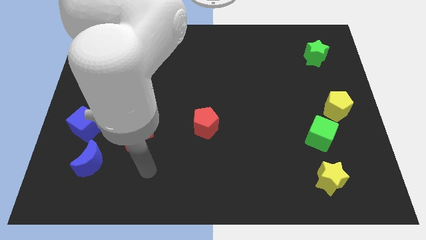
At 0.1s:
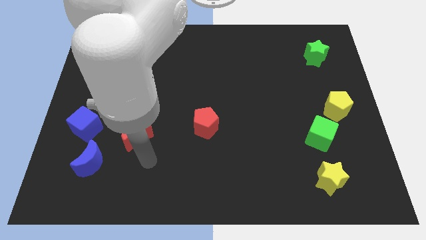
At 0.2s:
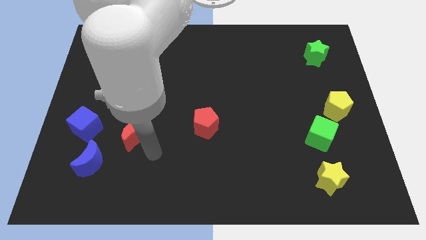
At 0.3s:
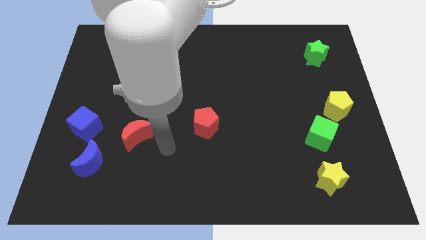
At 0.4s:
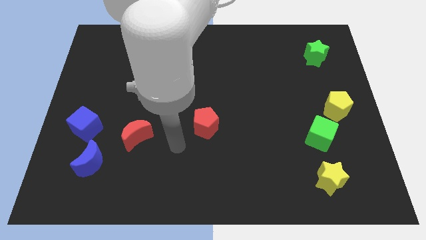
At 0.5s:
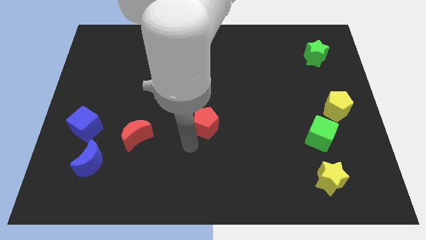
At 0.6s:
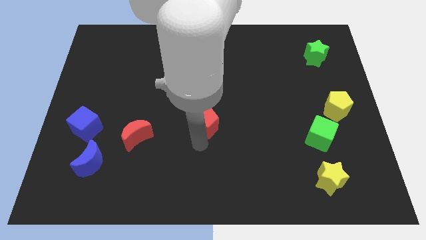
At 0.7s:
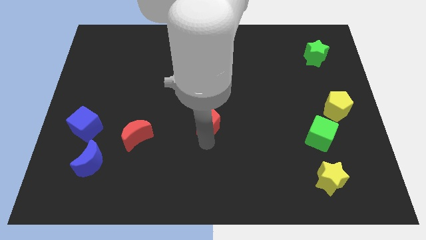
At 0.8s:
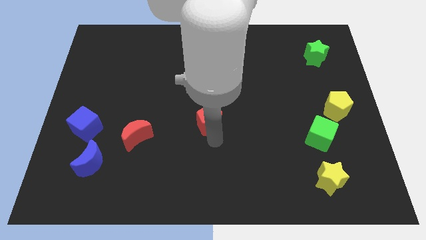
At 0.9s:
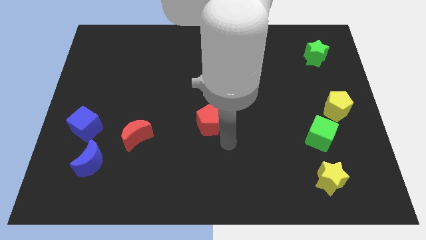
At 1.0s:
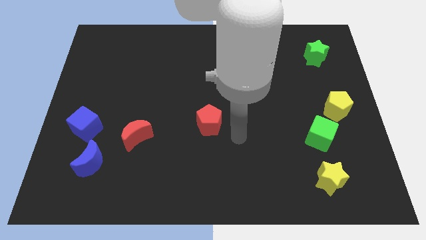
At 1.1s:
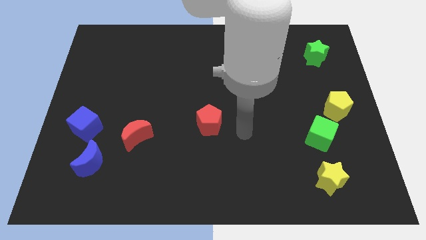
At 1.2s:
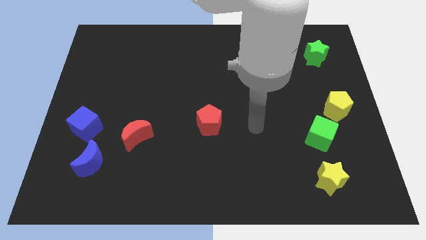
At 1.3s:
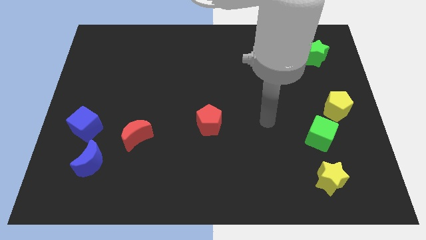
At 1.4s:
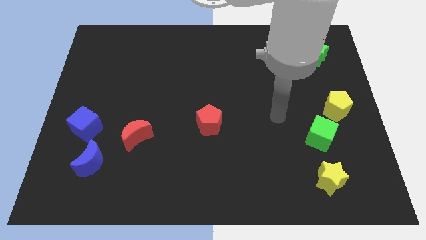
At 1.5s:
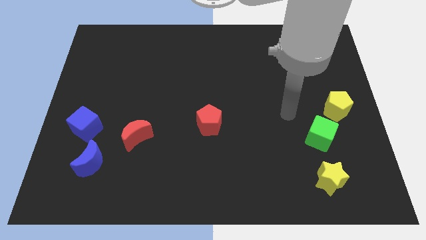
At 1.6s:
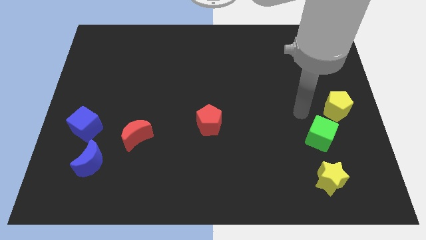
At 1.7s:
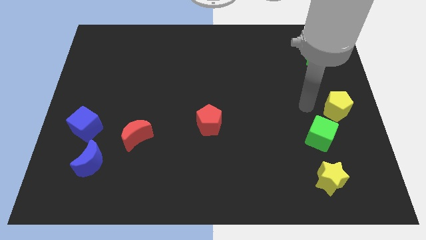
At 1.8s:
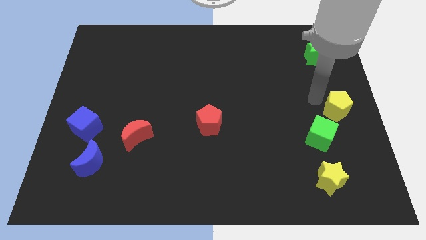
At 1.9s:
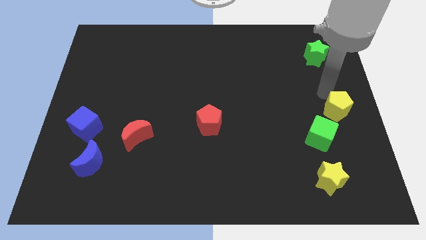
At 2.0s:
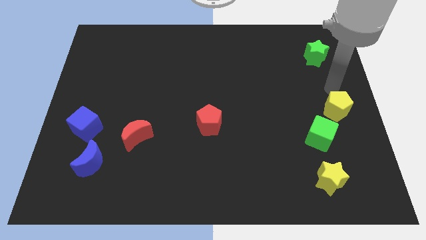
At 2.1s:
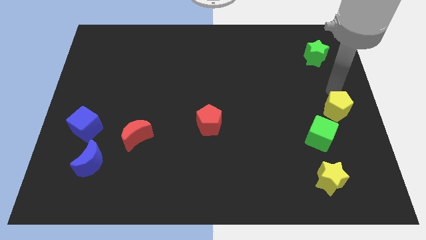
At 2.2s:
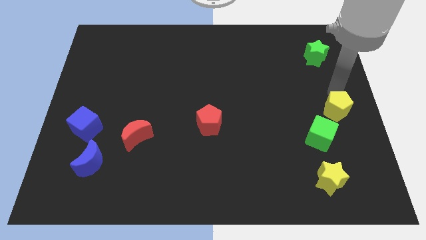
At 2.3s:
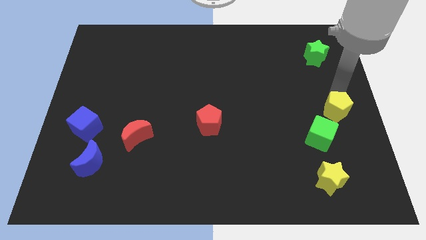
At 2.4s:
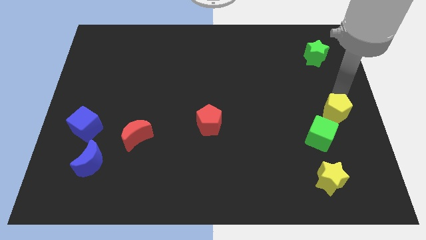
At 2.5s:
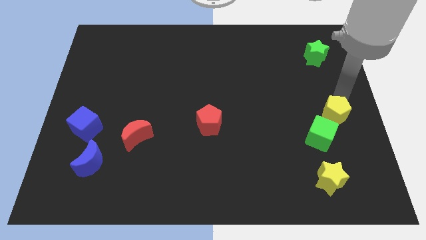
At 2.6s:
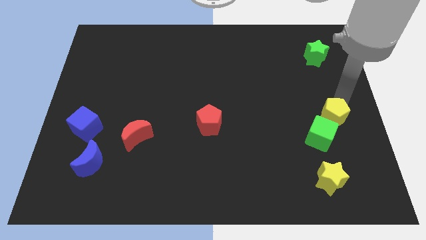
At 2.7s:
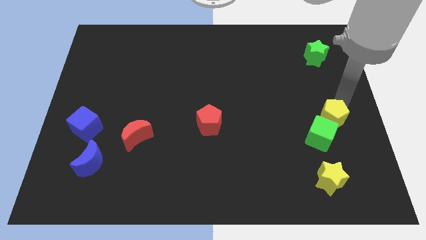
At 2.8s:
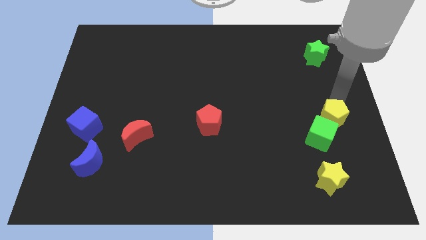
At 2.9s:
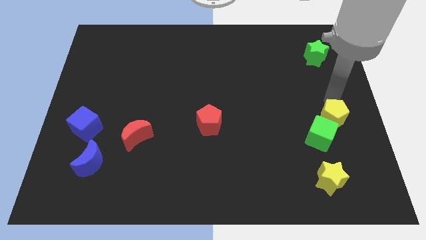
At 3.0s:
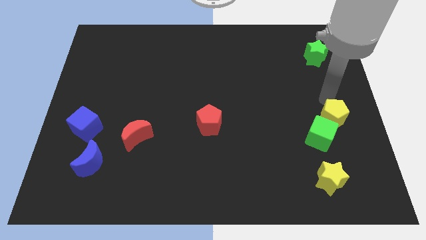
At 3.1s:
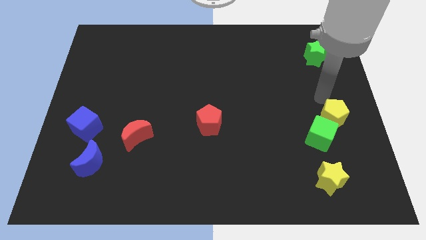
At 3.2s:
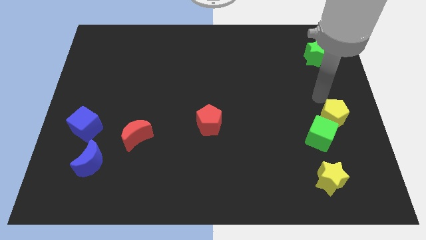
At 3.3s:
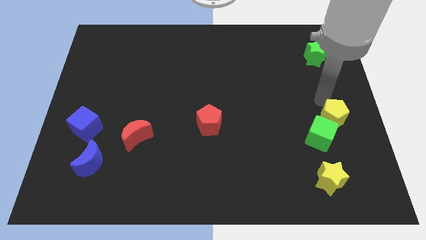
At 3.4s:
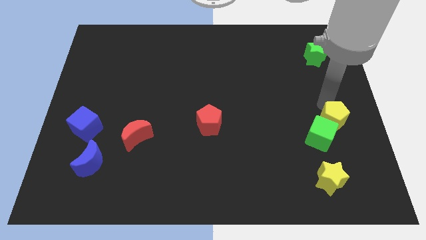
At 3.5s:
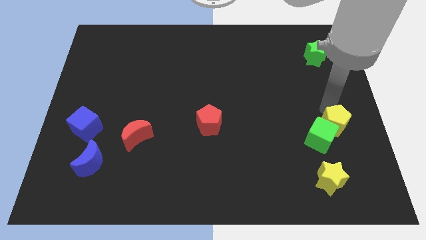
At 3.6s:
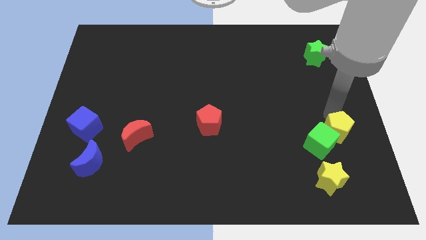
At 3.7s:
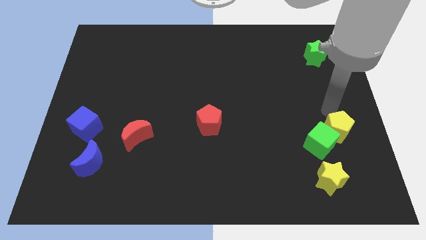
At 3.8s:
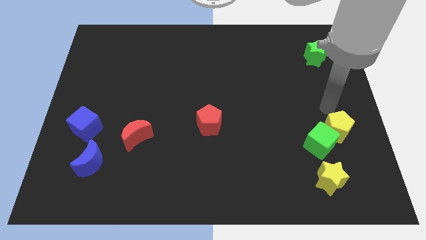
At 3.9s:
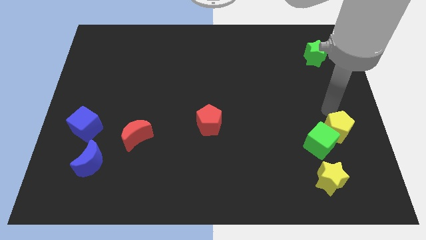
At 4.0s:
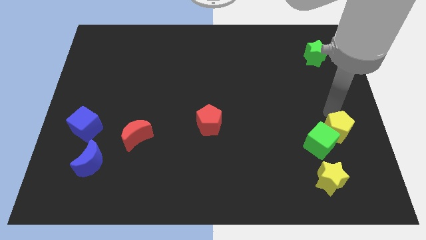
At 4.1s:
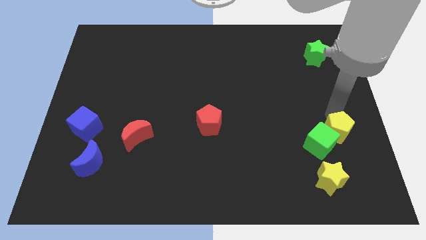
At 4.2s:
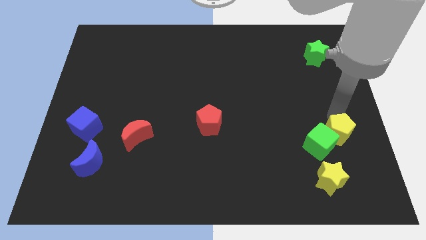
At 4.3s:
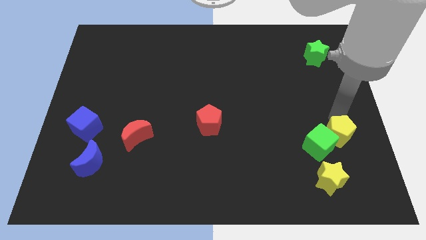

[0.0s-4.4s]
move the yellow pentagon downwards somewhat

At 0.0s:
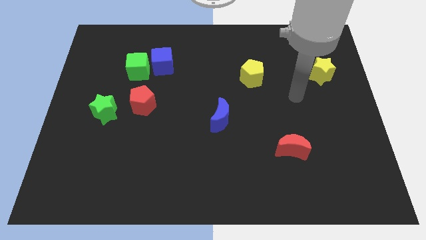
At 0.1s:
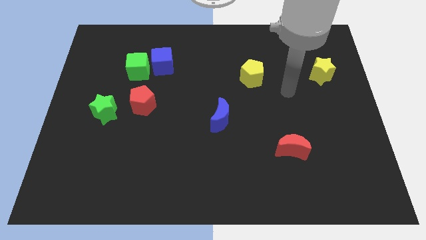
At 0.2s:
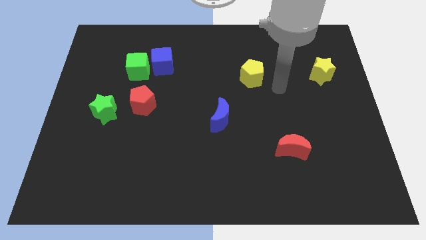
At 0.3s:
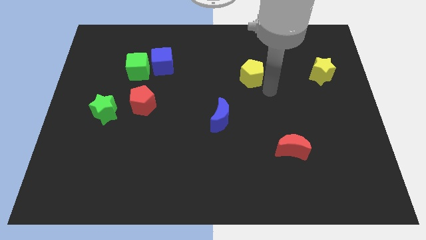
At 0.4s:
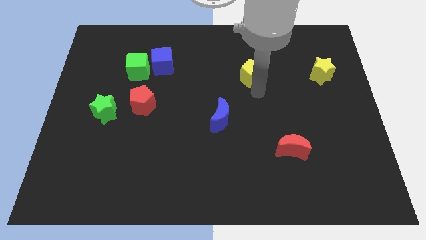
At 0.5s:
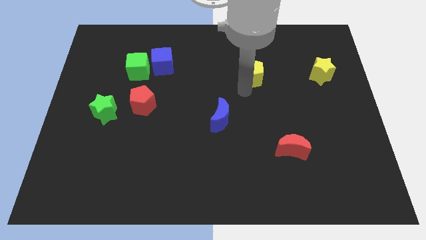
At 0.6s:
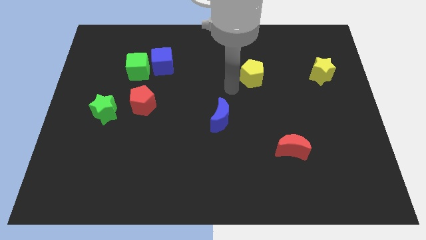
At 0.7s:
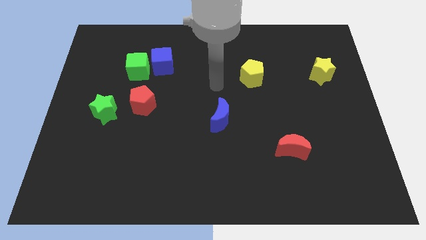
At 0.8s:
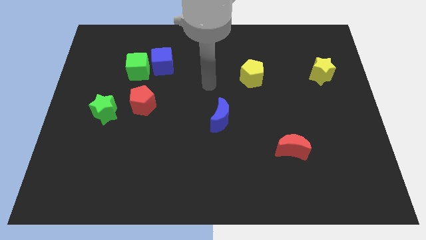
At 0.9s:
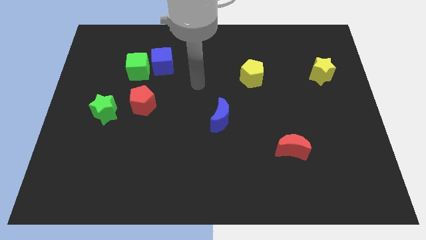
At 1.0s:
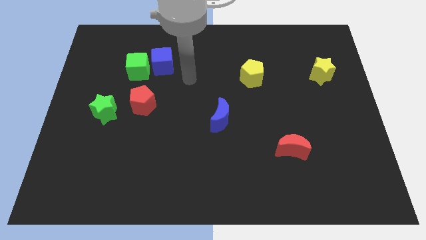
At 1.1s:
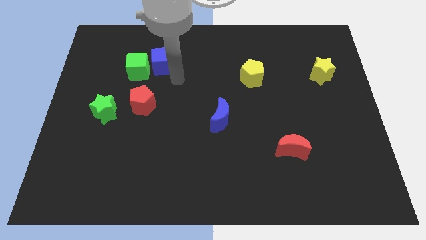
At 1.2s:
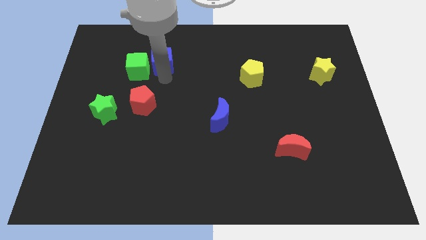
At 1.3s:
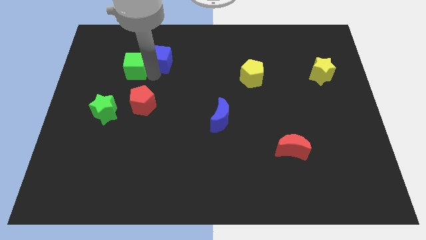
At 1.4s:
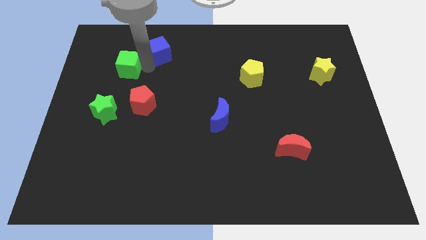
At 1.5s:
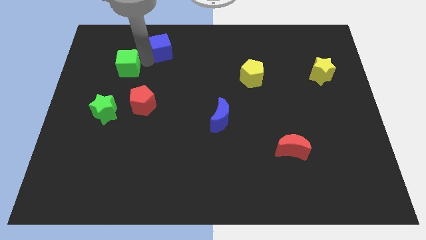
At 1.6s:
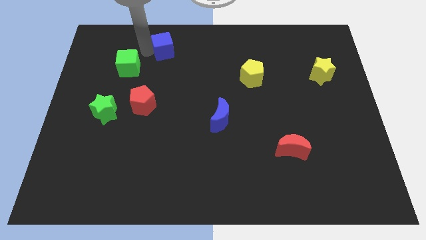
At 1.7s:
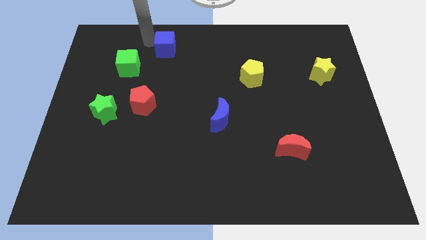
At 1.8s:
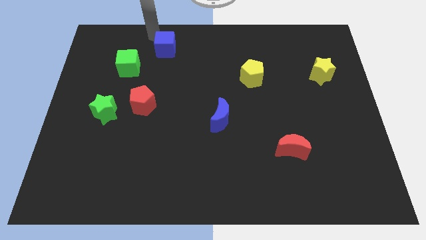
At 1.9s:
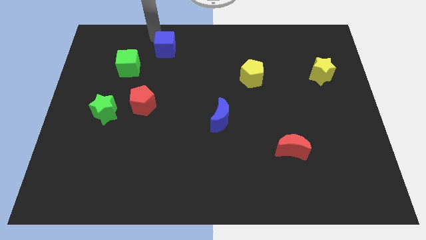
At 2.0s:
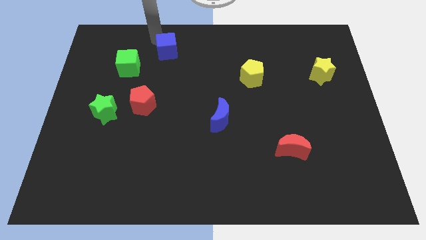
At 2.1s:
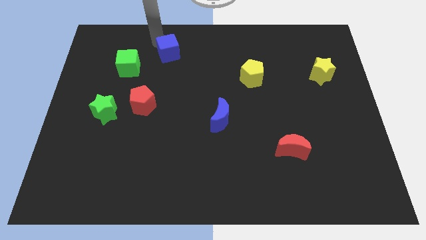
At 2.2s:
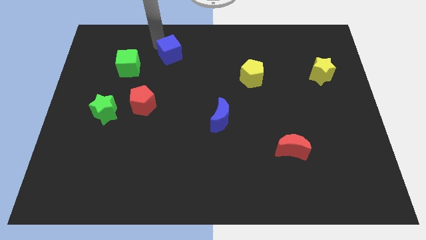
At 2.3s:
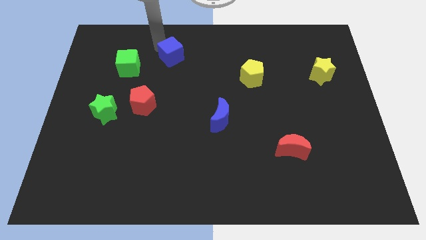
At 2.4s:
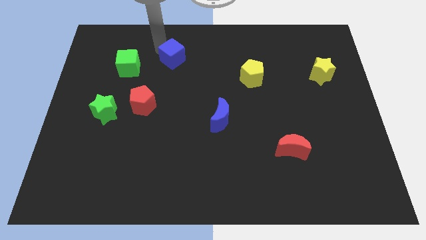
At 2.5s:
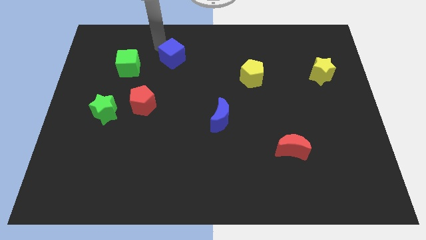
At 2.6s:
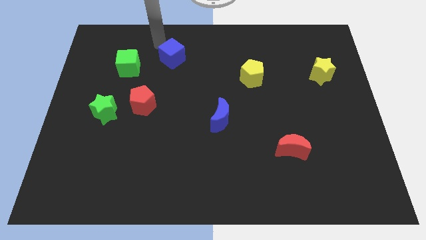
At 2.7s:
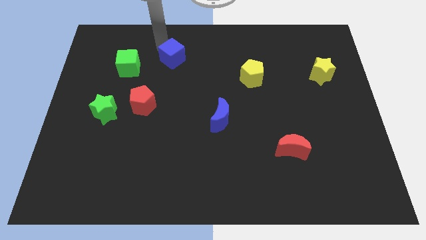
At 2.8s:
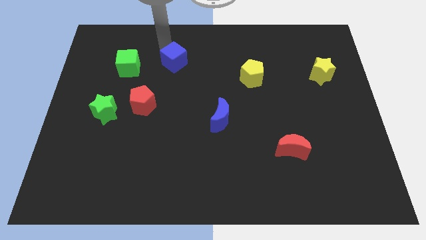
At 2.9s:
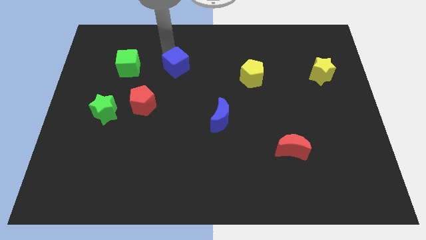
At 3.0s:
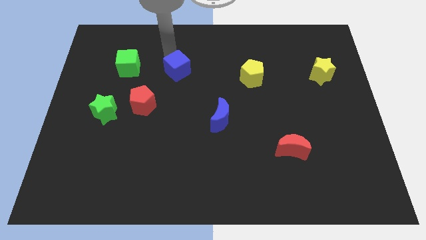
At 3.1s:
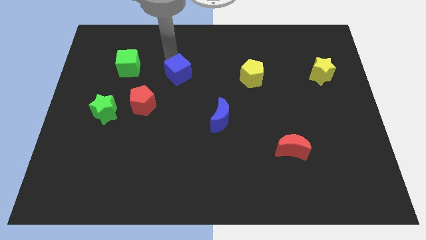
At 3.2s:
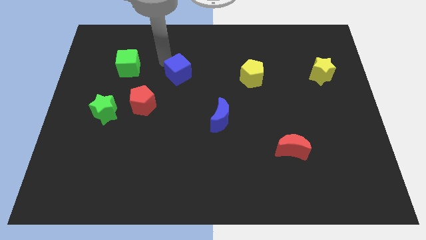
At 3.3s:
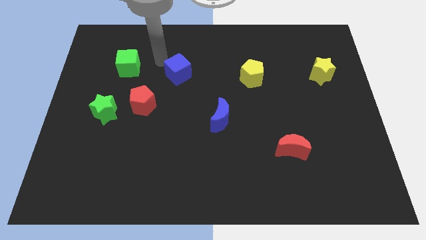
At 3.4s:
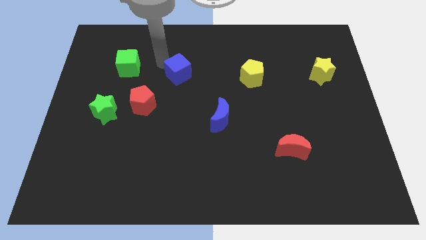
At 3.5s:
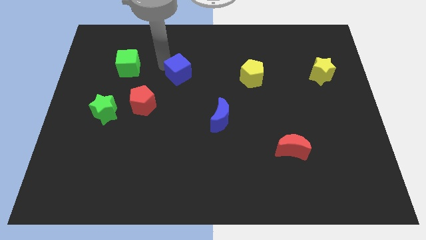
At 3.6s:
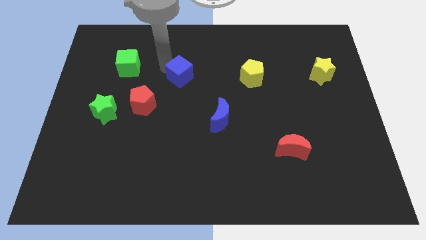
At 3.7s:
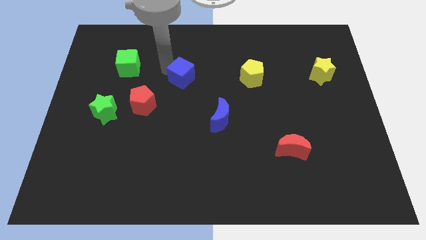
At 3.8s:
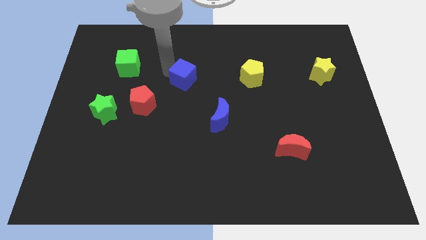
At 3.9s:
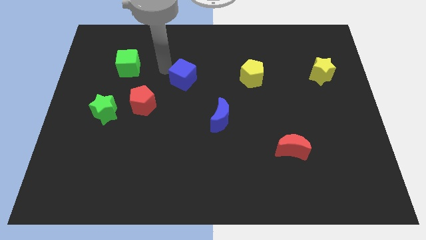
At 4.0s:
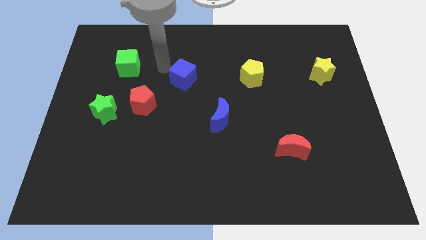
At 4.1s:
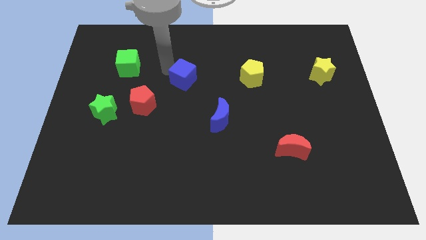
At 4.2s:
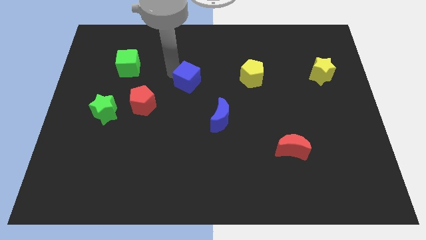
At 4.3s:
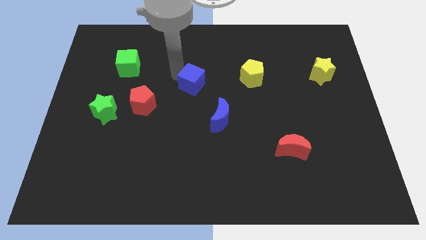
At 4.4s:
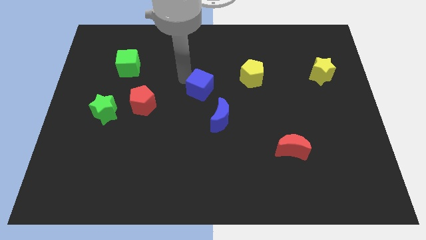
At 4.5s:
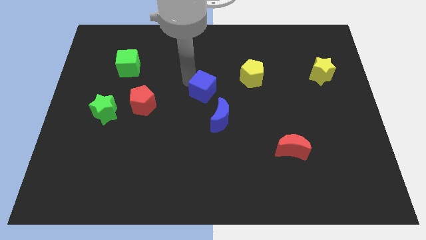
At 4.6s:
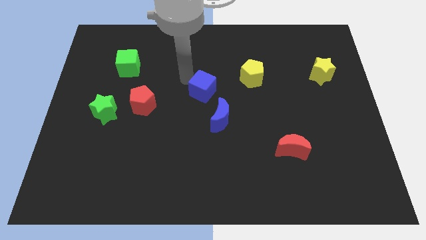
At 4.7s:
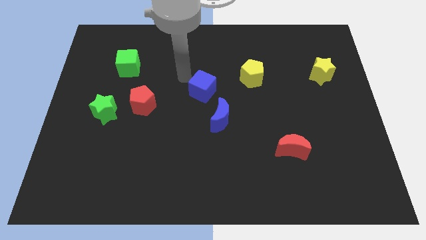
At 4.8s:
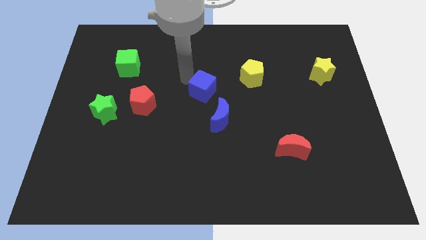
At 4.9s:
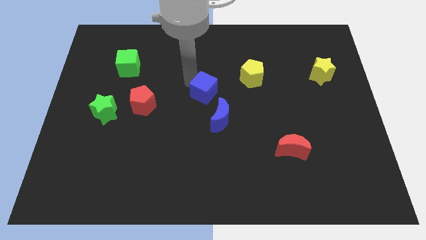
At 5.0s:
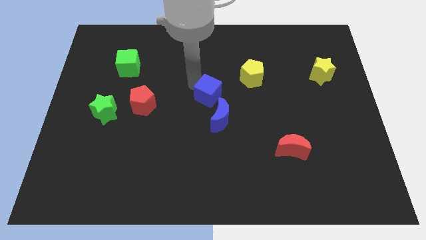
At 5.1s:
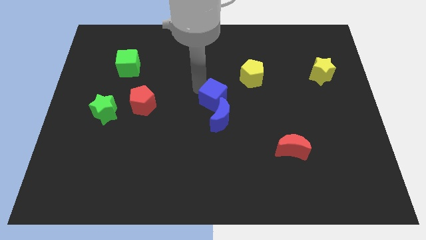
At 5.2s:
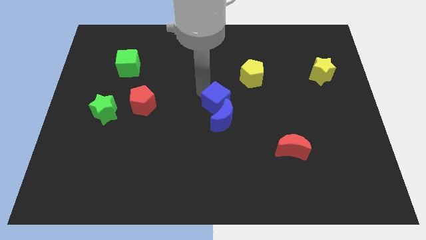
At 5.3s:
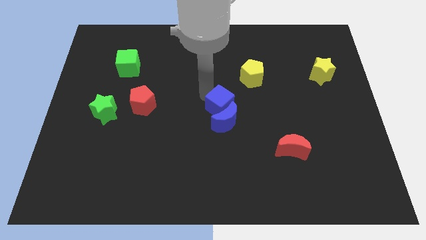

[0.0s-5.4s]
push the blue cube down and right diagonally
